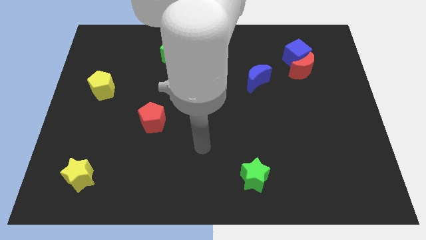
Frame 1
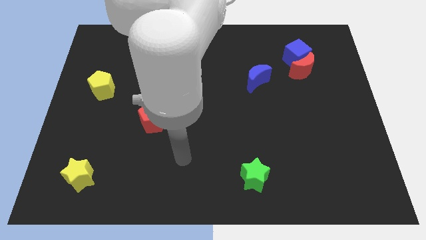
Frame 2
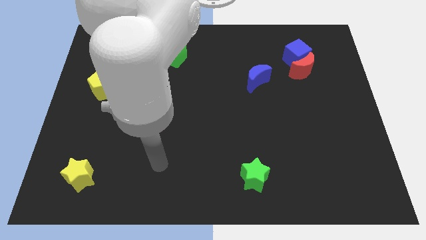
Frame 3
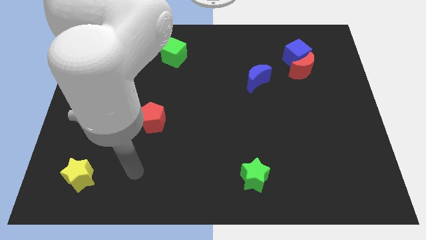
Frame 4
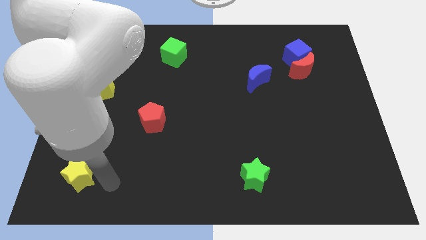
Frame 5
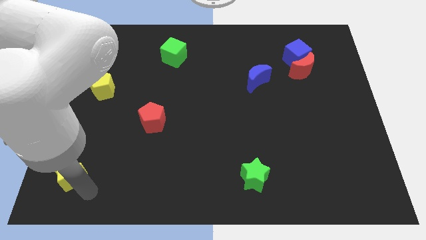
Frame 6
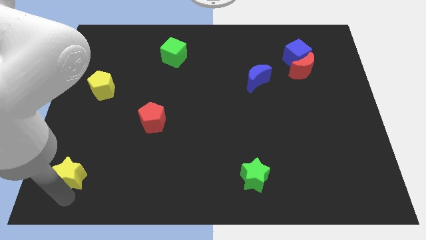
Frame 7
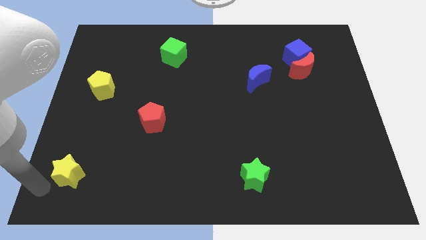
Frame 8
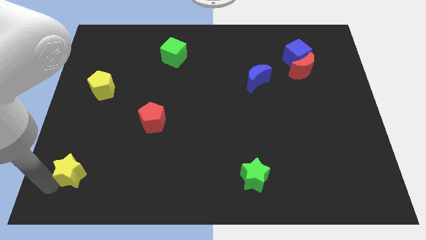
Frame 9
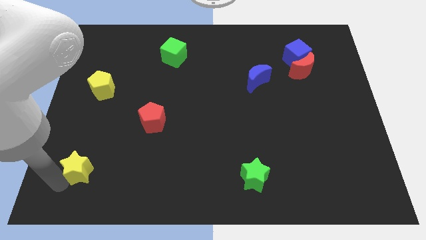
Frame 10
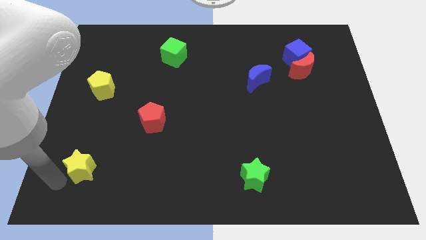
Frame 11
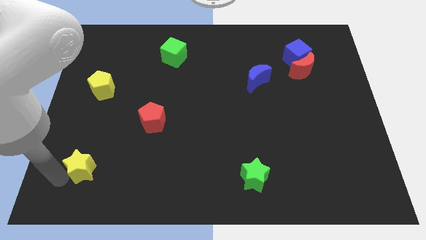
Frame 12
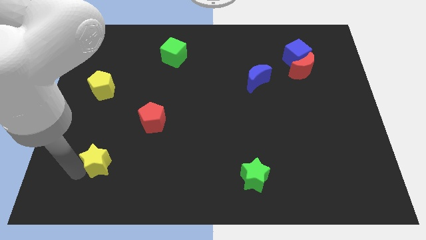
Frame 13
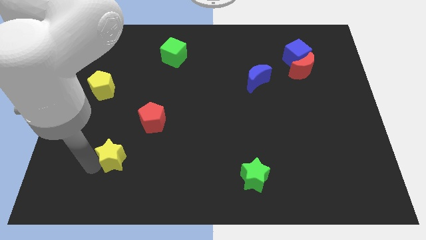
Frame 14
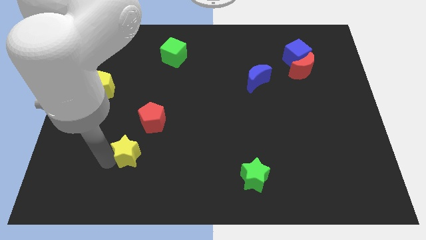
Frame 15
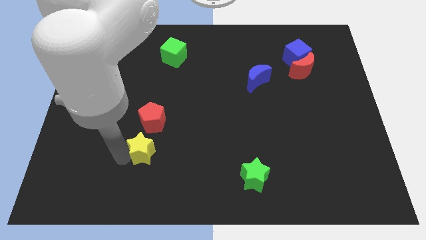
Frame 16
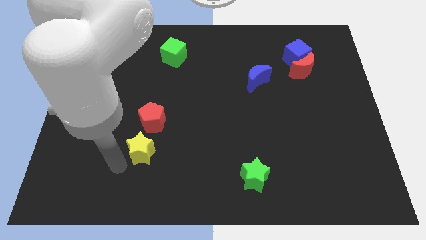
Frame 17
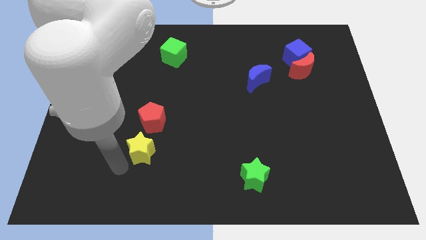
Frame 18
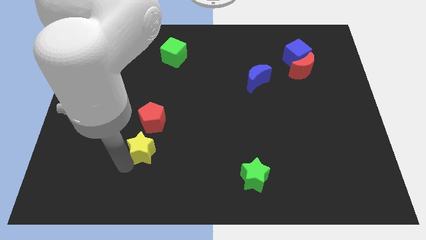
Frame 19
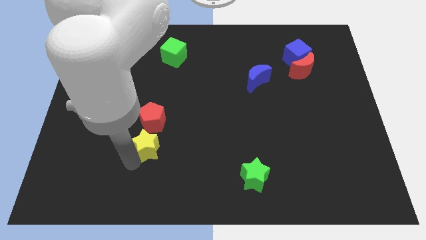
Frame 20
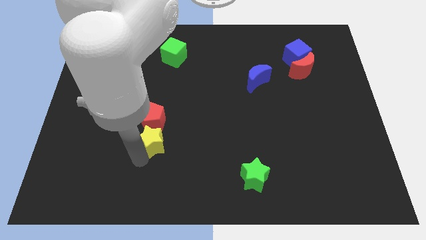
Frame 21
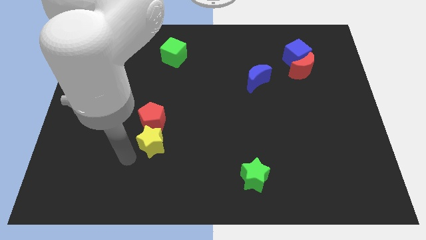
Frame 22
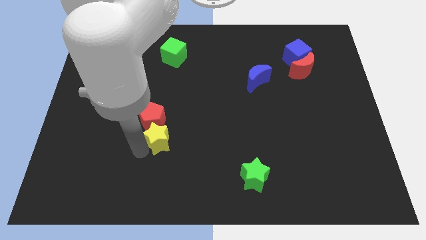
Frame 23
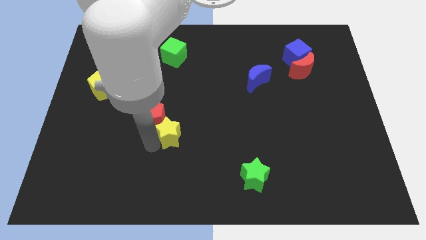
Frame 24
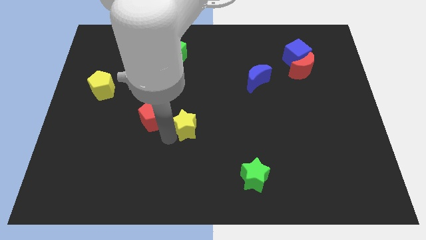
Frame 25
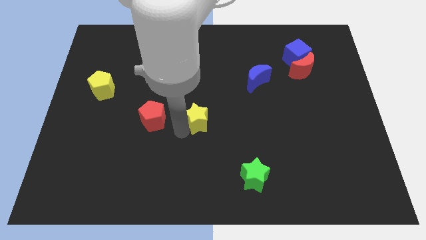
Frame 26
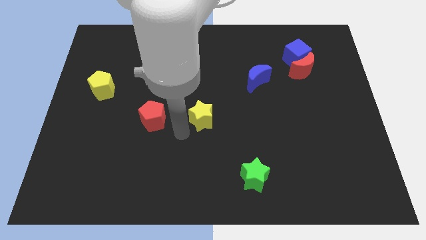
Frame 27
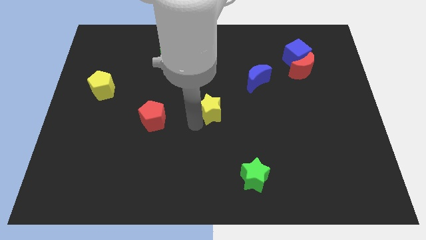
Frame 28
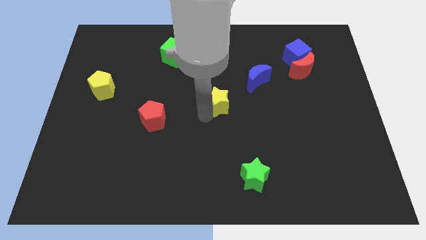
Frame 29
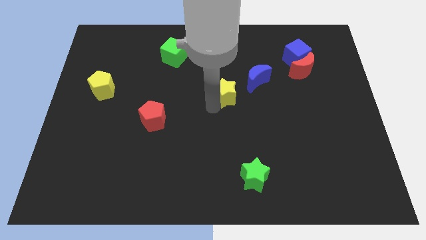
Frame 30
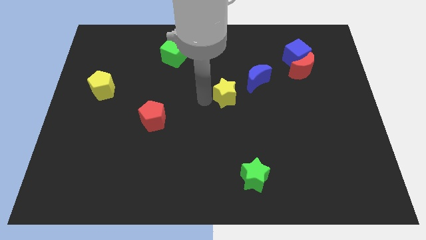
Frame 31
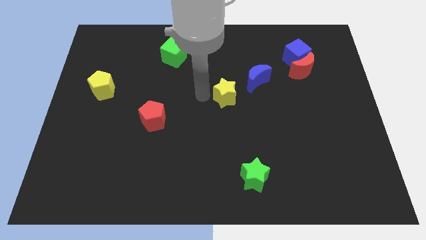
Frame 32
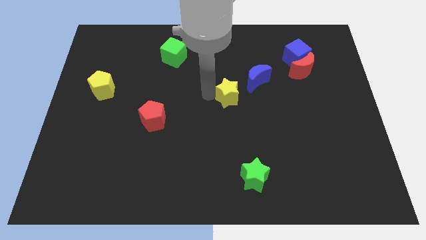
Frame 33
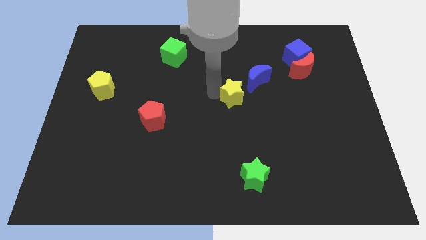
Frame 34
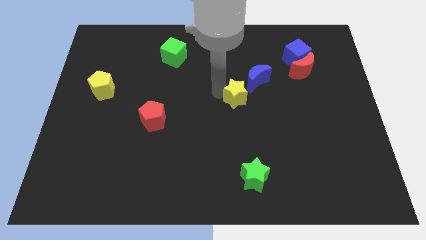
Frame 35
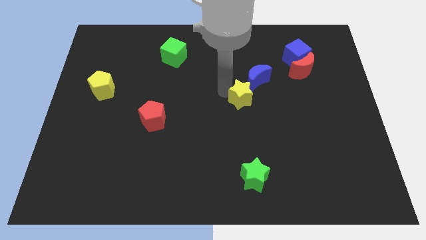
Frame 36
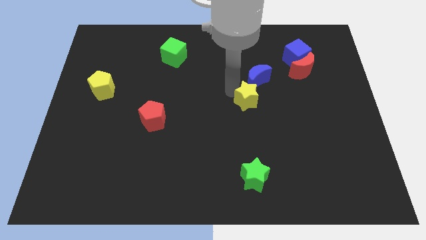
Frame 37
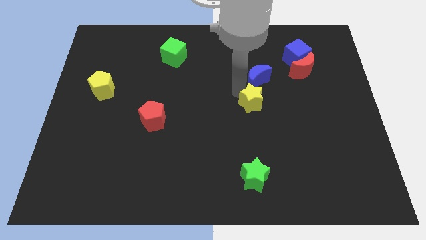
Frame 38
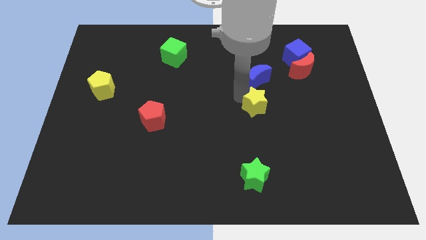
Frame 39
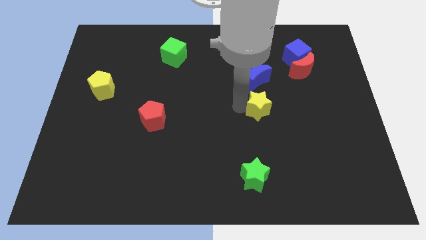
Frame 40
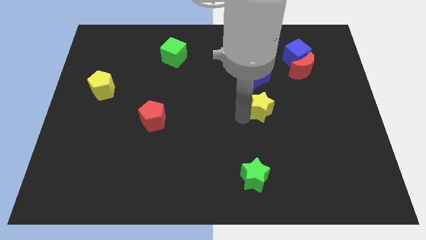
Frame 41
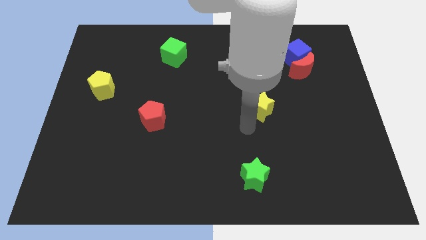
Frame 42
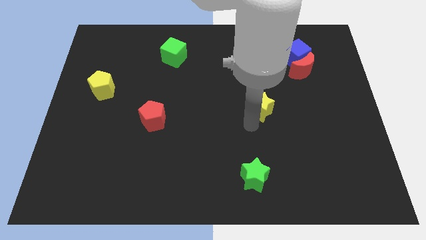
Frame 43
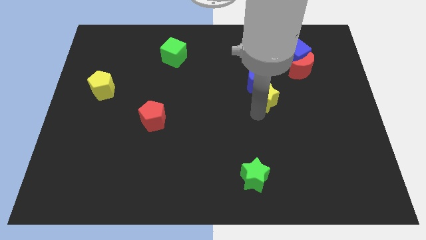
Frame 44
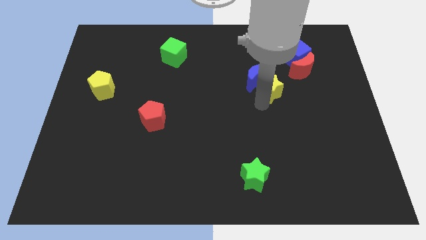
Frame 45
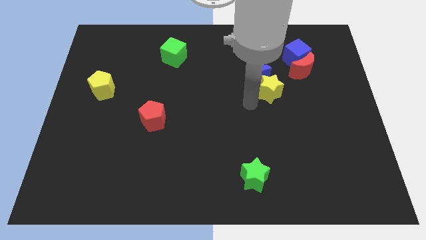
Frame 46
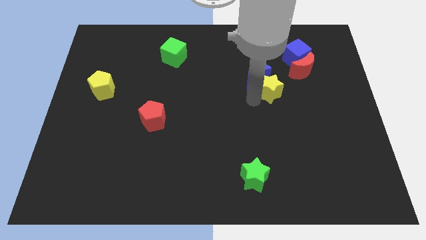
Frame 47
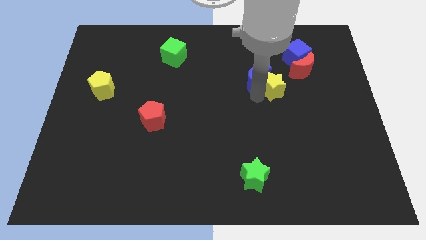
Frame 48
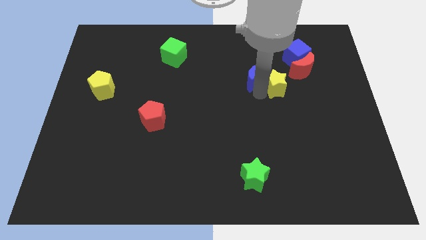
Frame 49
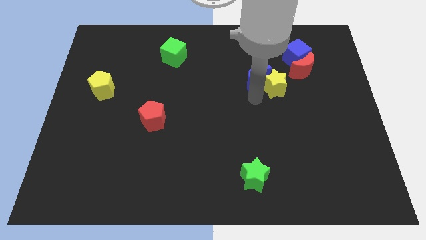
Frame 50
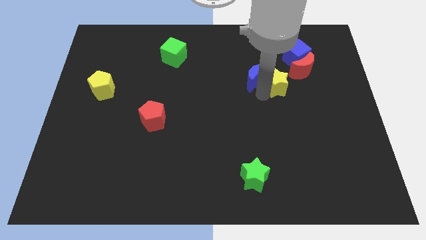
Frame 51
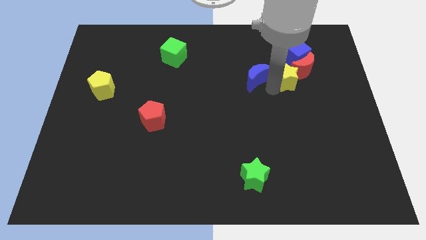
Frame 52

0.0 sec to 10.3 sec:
push the yellow star towards the red moon
